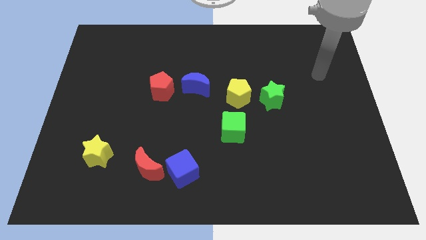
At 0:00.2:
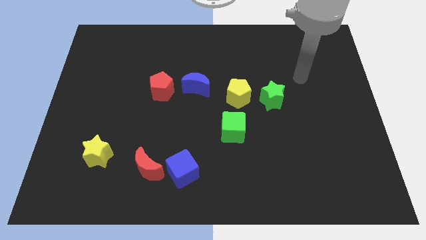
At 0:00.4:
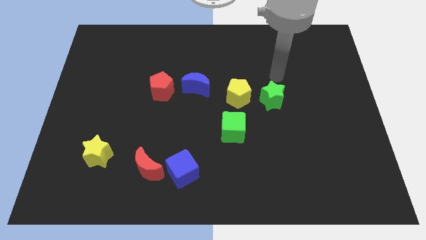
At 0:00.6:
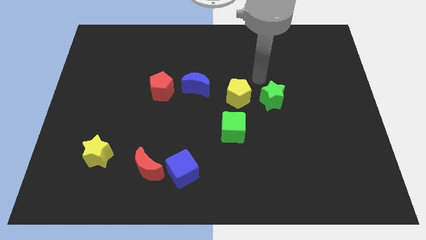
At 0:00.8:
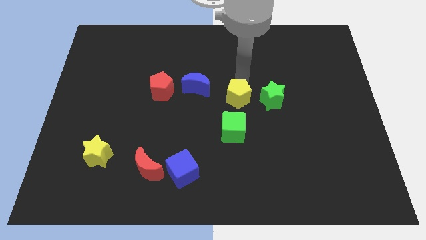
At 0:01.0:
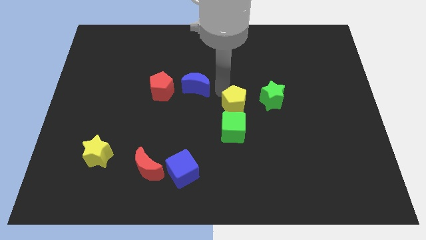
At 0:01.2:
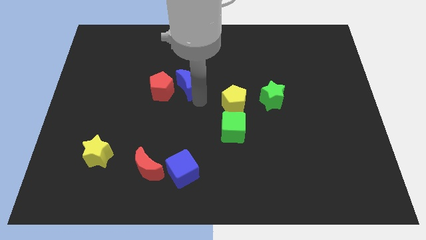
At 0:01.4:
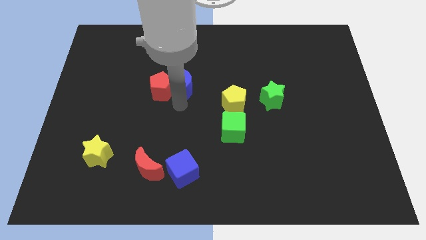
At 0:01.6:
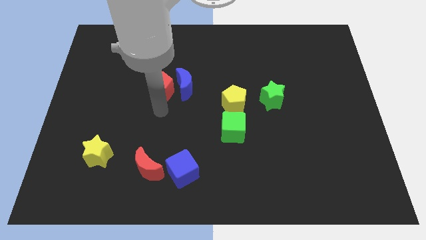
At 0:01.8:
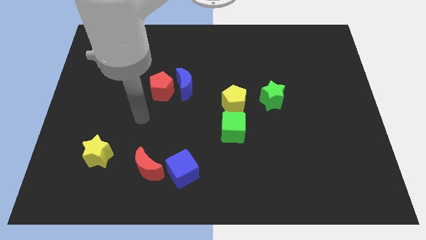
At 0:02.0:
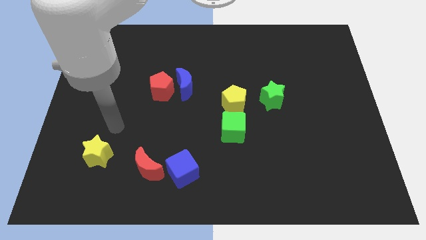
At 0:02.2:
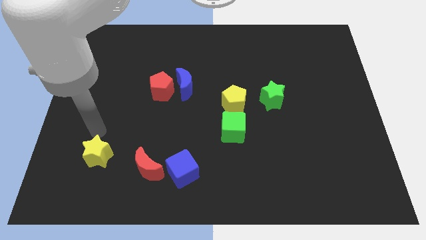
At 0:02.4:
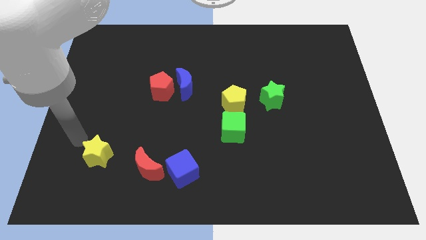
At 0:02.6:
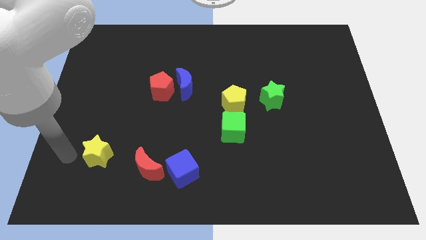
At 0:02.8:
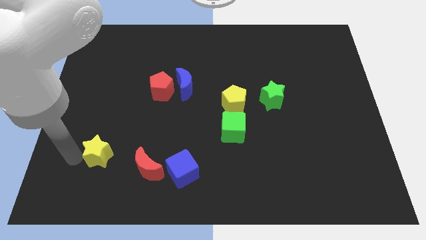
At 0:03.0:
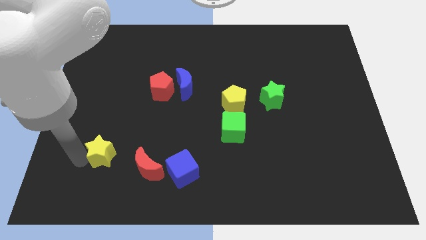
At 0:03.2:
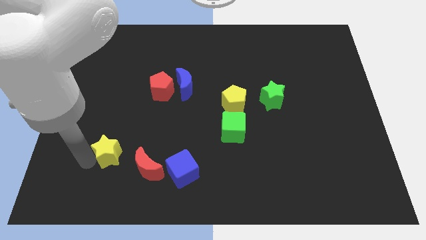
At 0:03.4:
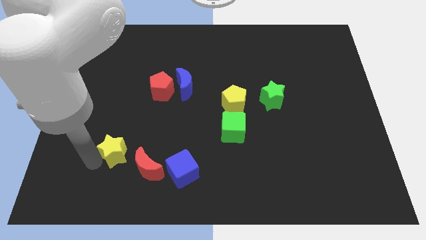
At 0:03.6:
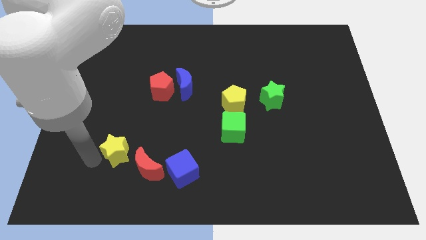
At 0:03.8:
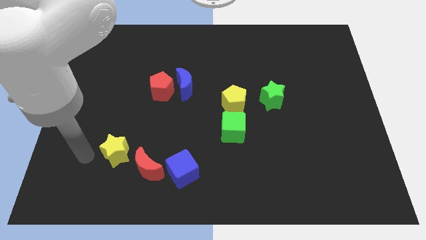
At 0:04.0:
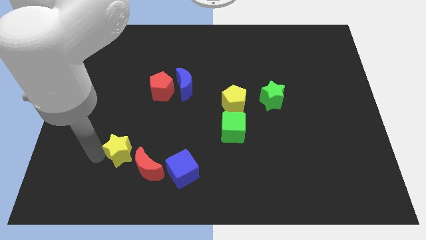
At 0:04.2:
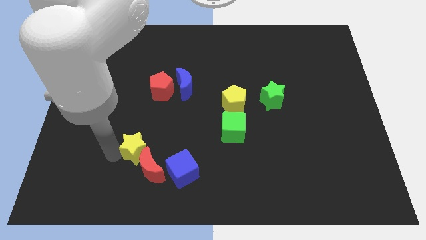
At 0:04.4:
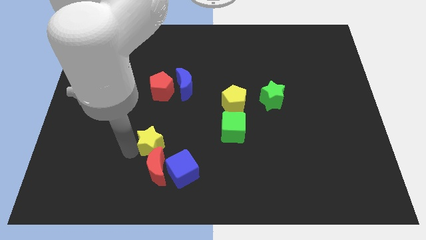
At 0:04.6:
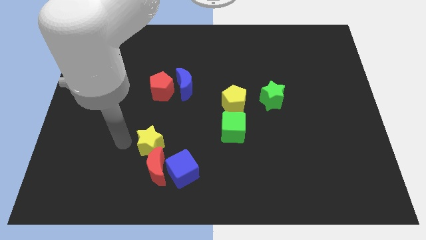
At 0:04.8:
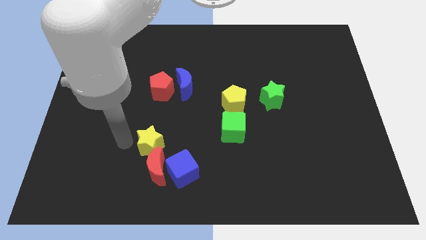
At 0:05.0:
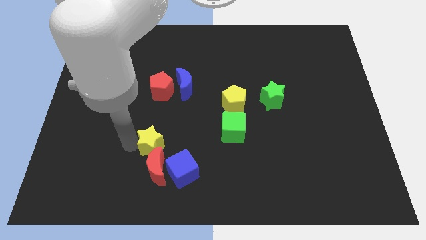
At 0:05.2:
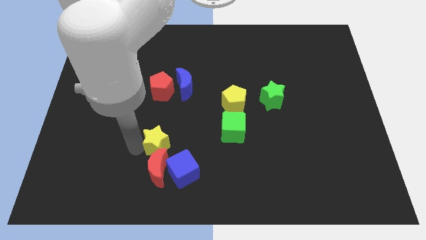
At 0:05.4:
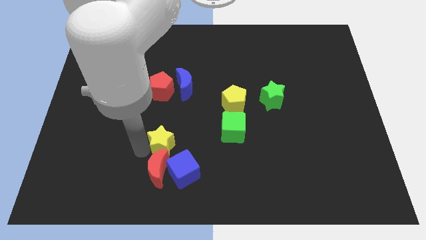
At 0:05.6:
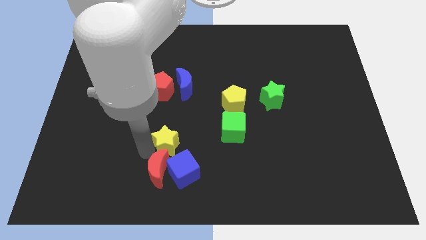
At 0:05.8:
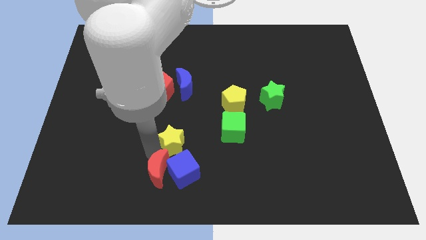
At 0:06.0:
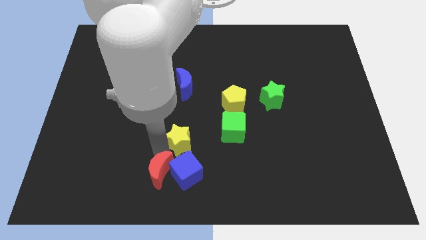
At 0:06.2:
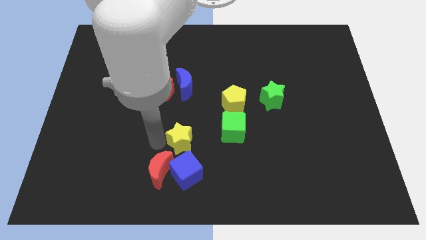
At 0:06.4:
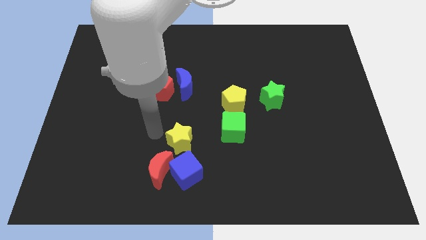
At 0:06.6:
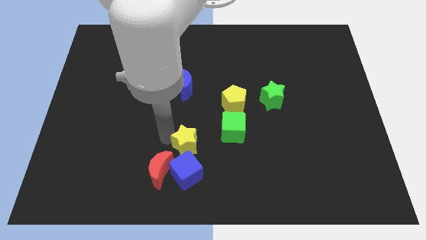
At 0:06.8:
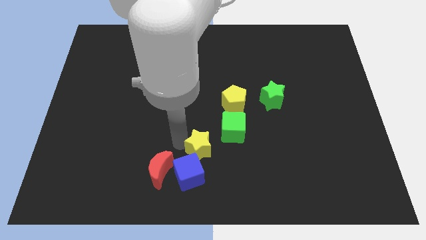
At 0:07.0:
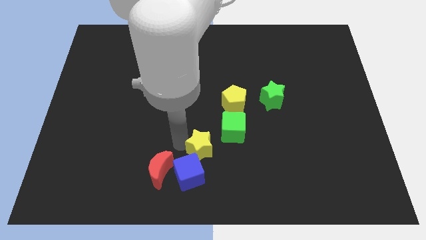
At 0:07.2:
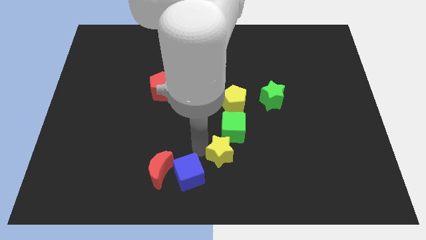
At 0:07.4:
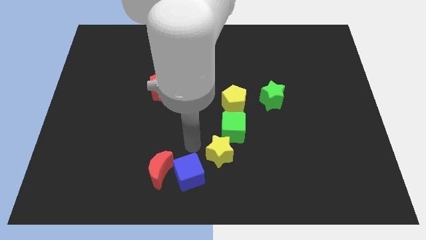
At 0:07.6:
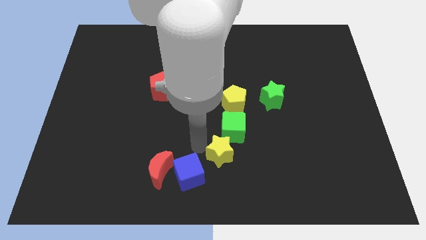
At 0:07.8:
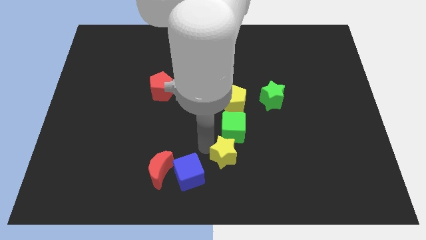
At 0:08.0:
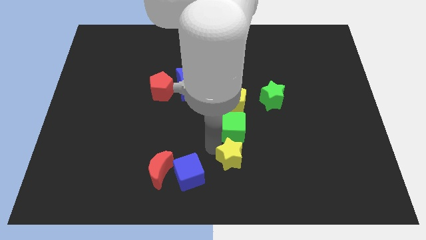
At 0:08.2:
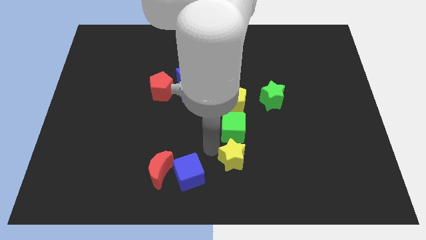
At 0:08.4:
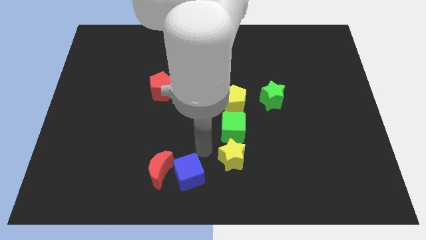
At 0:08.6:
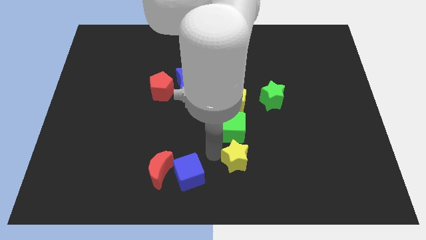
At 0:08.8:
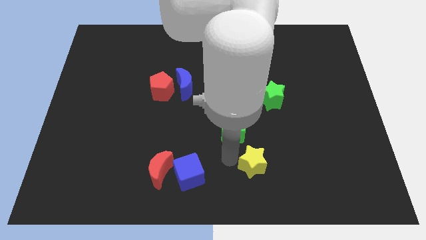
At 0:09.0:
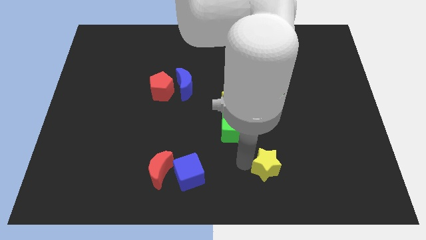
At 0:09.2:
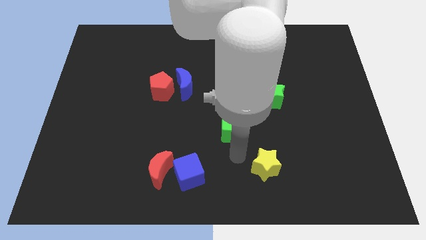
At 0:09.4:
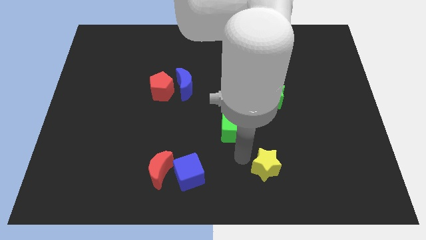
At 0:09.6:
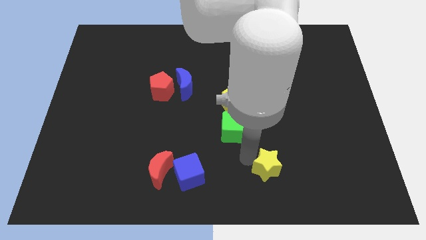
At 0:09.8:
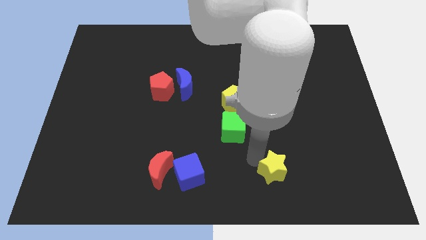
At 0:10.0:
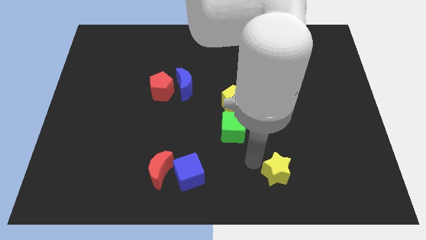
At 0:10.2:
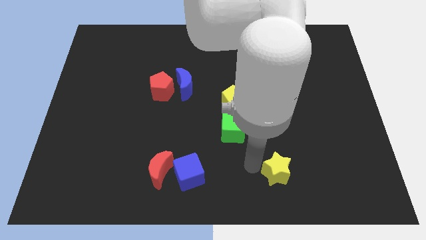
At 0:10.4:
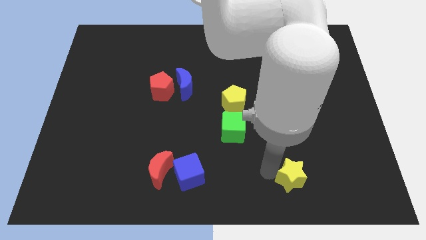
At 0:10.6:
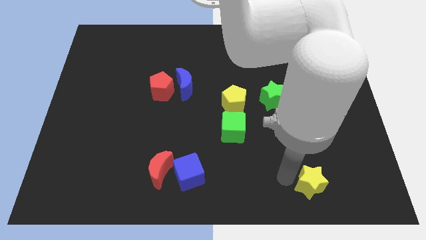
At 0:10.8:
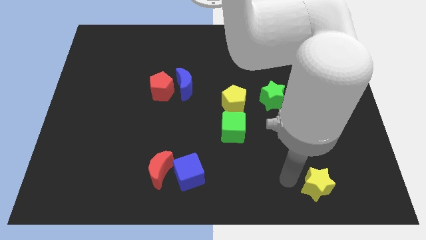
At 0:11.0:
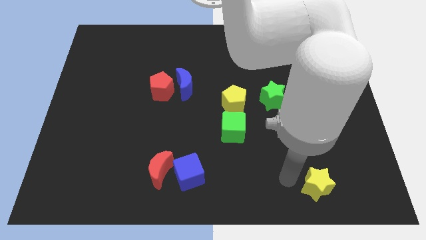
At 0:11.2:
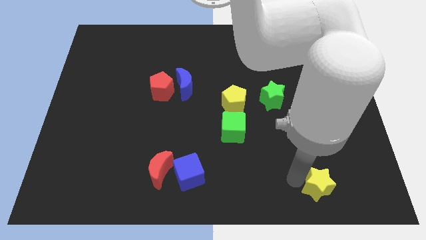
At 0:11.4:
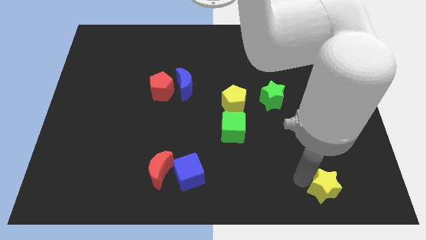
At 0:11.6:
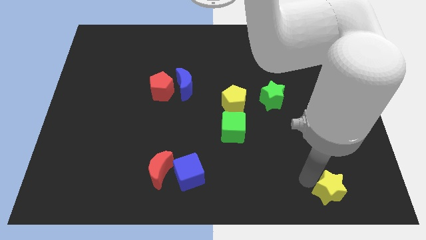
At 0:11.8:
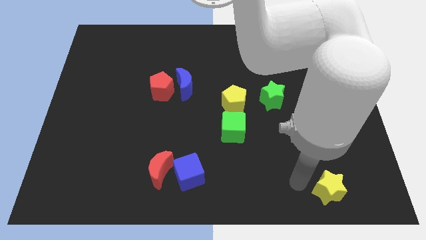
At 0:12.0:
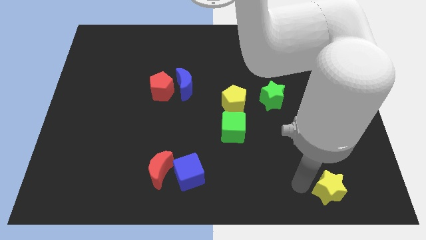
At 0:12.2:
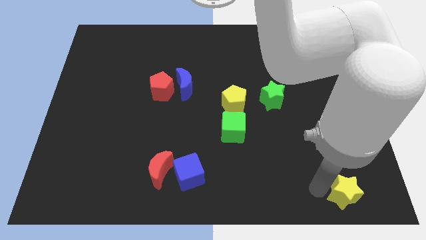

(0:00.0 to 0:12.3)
push the yellow star to the lower right corner

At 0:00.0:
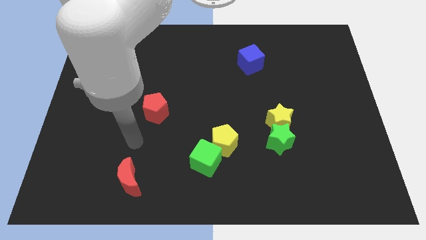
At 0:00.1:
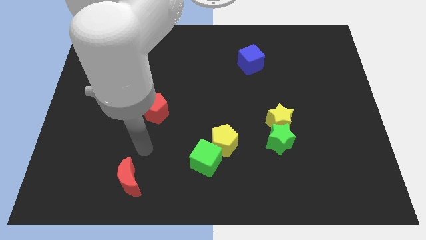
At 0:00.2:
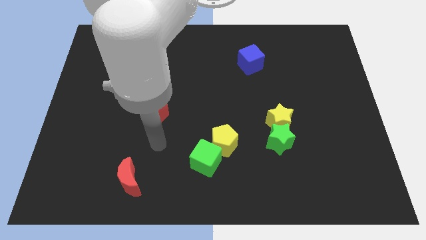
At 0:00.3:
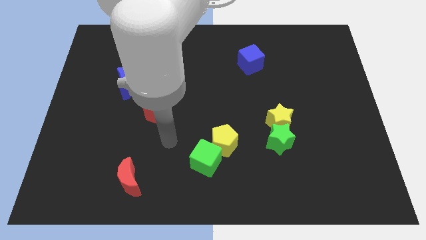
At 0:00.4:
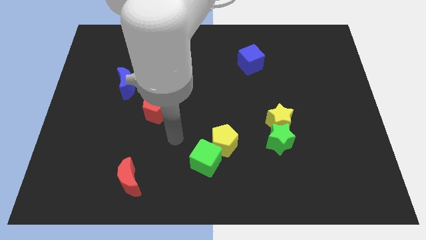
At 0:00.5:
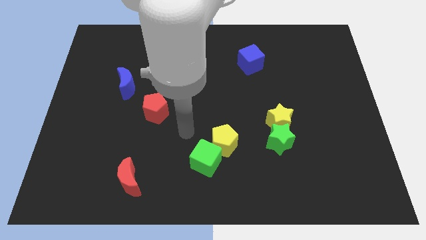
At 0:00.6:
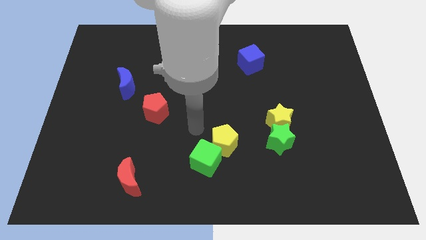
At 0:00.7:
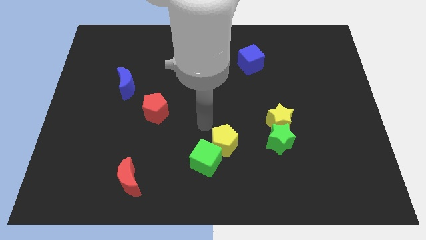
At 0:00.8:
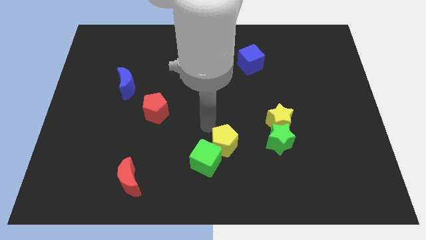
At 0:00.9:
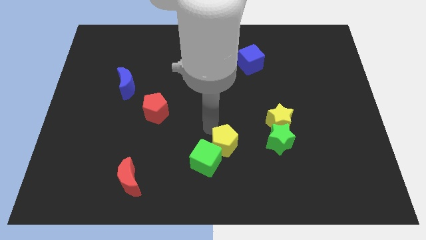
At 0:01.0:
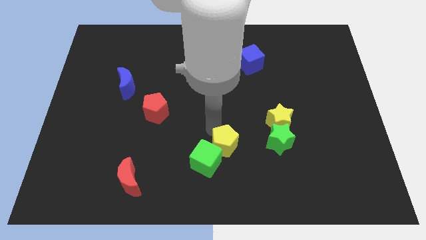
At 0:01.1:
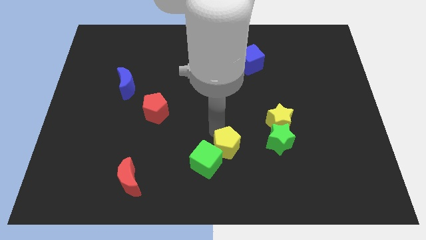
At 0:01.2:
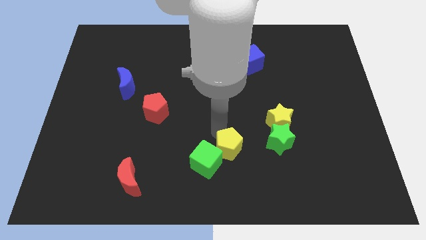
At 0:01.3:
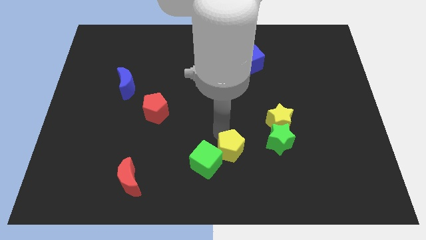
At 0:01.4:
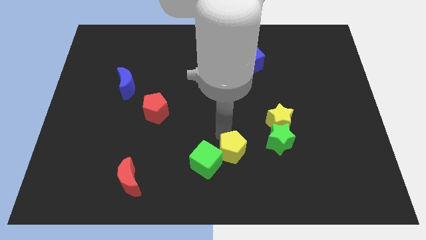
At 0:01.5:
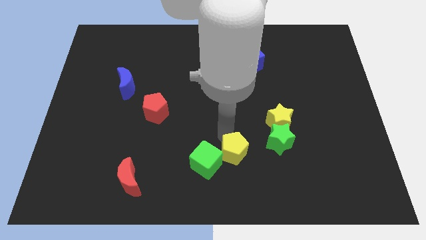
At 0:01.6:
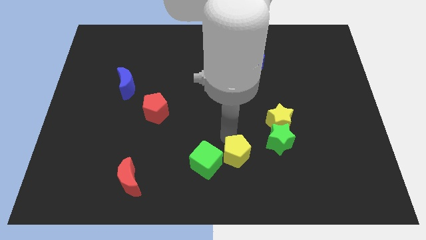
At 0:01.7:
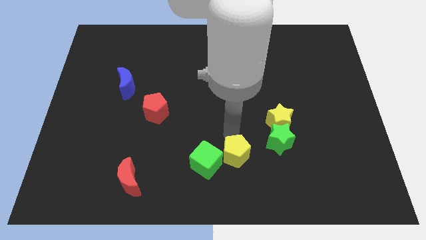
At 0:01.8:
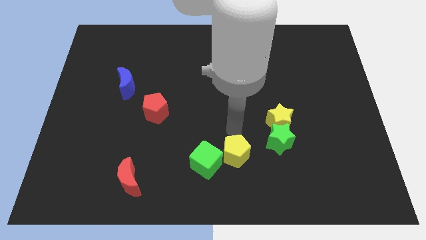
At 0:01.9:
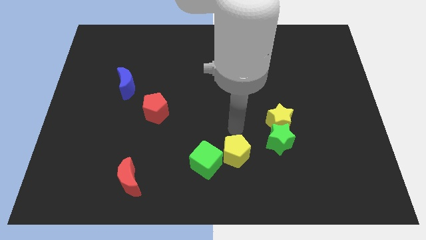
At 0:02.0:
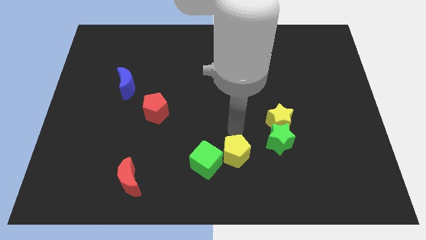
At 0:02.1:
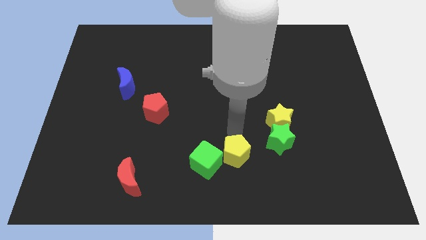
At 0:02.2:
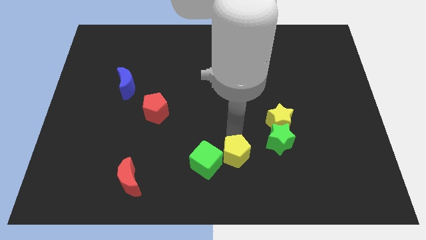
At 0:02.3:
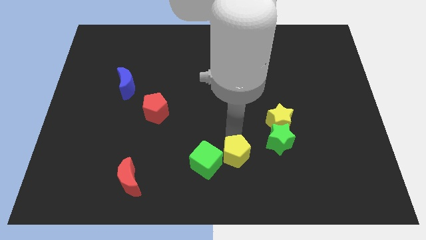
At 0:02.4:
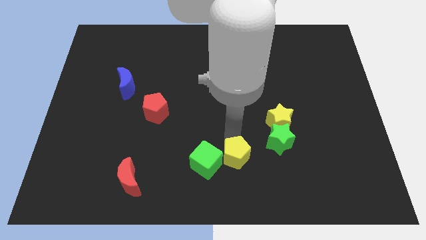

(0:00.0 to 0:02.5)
move the yellow pentagon to the bottom side
